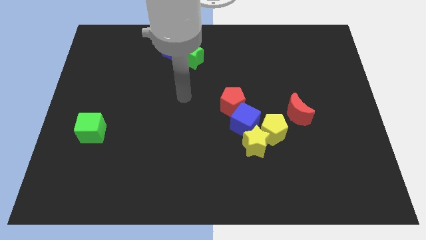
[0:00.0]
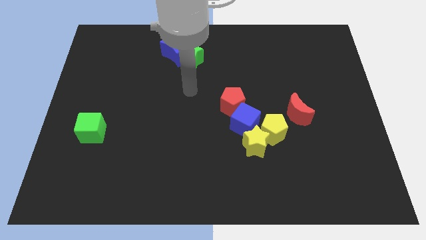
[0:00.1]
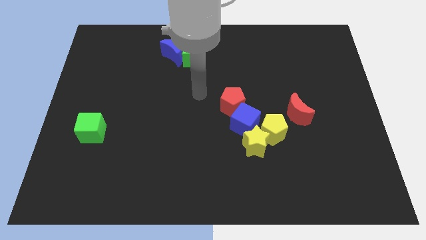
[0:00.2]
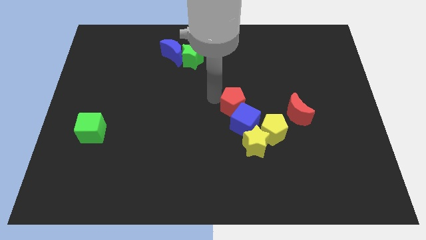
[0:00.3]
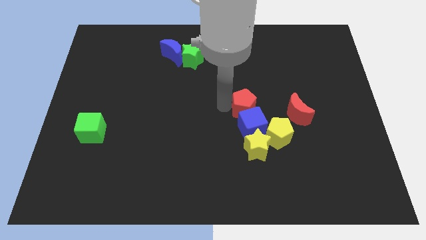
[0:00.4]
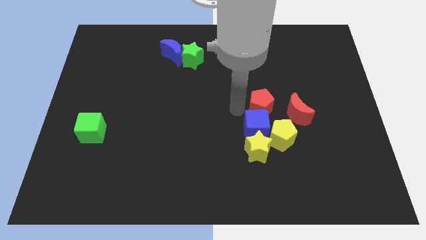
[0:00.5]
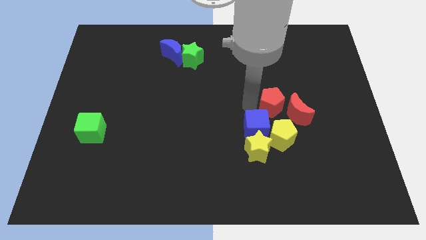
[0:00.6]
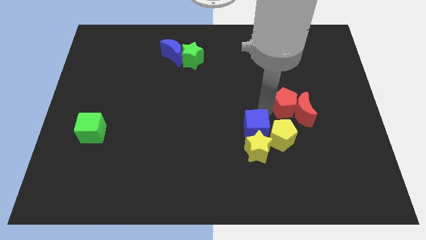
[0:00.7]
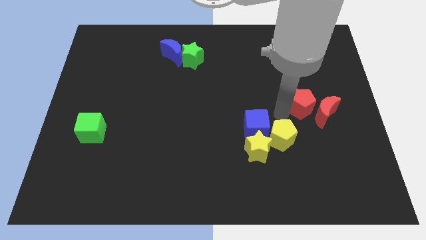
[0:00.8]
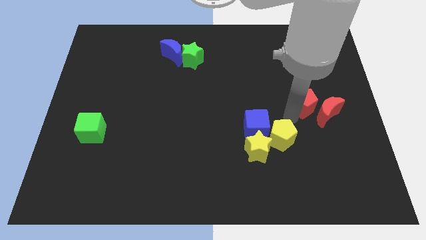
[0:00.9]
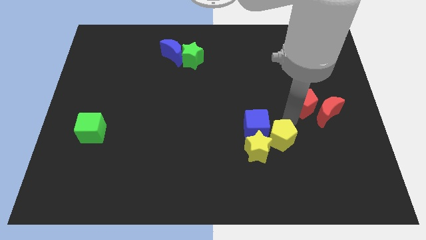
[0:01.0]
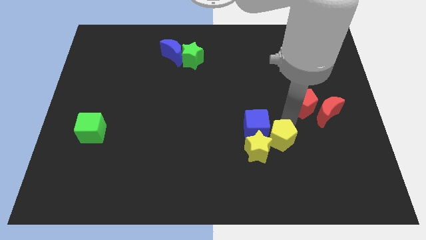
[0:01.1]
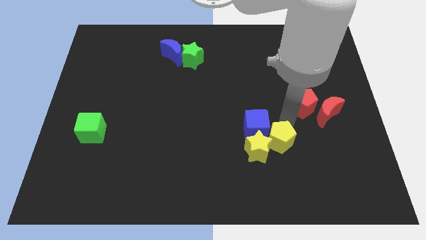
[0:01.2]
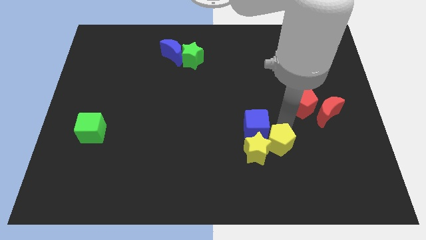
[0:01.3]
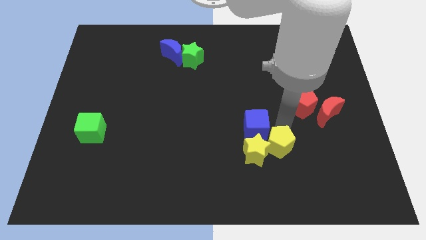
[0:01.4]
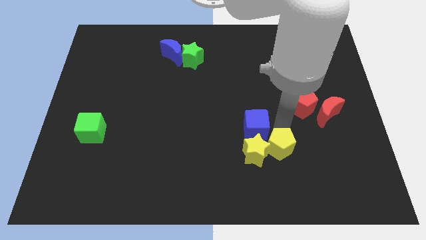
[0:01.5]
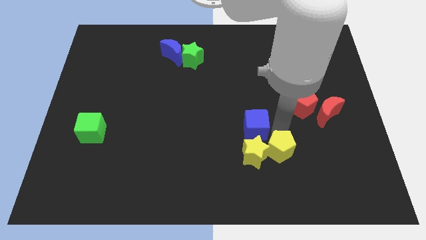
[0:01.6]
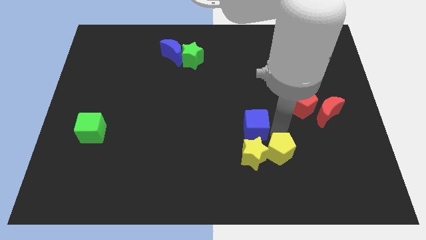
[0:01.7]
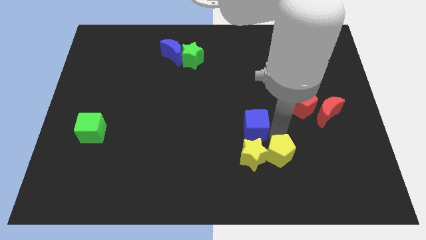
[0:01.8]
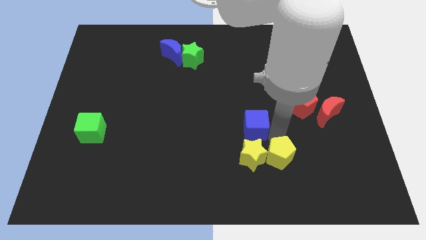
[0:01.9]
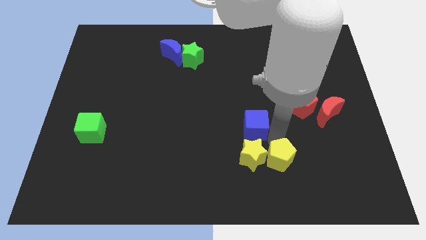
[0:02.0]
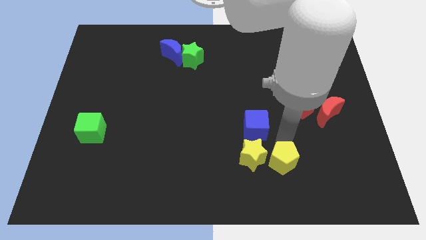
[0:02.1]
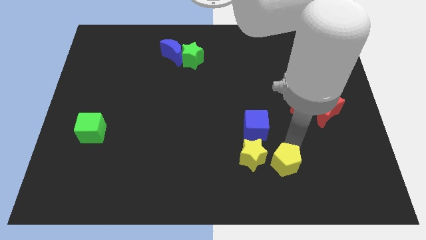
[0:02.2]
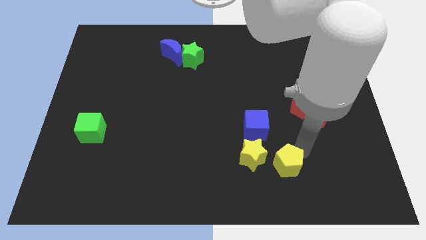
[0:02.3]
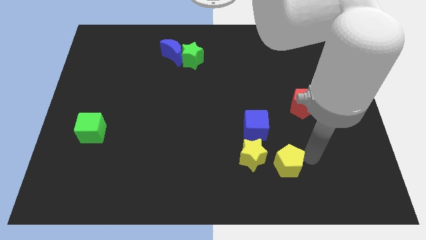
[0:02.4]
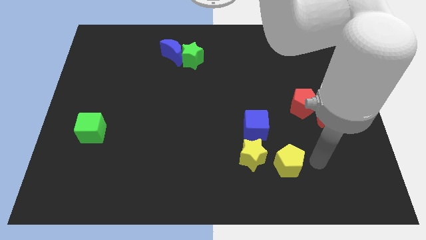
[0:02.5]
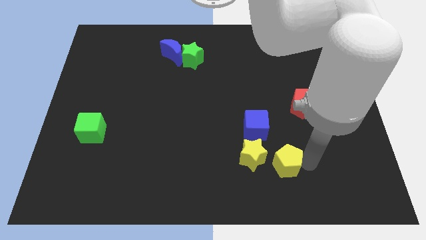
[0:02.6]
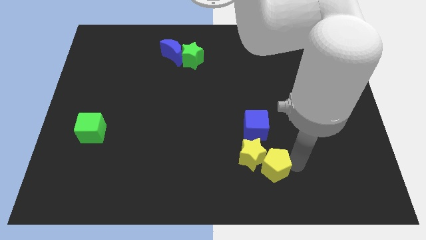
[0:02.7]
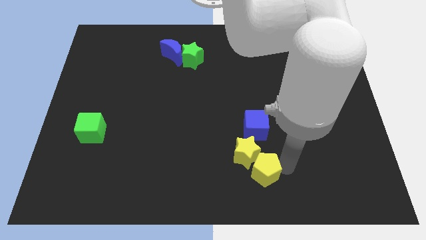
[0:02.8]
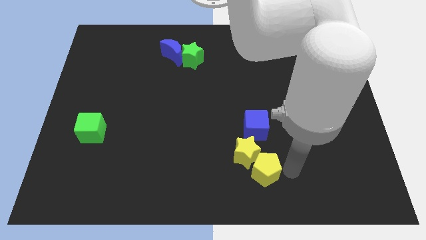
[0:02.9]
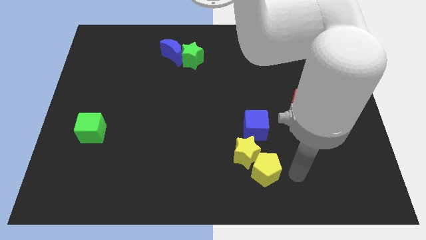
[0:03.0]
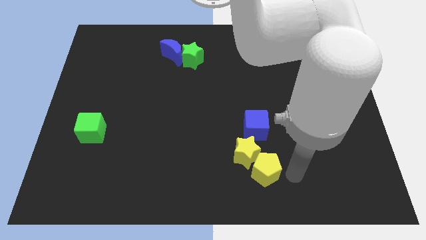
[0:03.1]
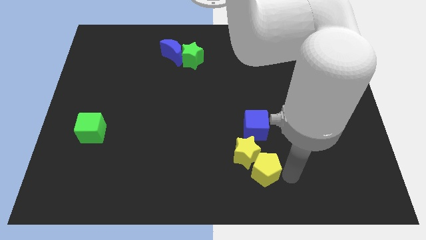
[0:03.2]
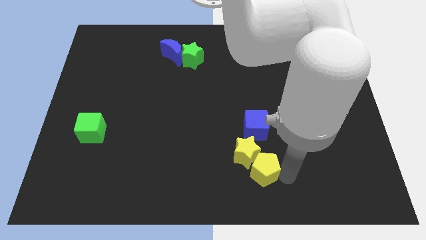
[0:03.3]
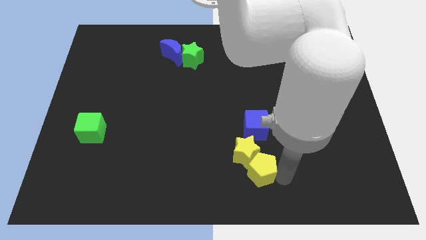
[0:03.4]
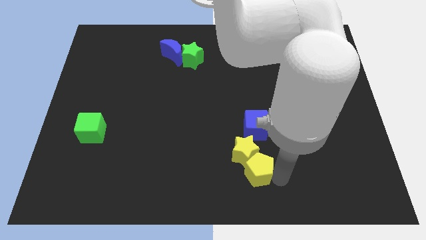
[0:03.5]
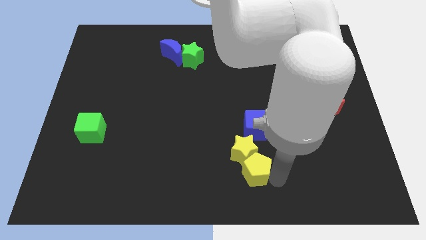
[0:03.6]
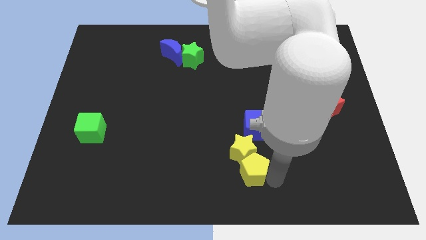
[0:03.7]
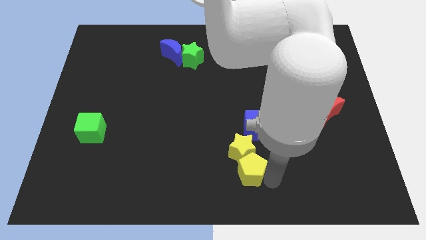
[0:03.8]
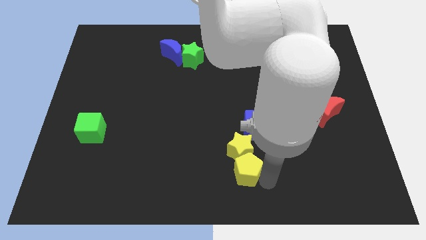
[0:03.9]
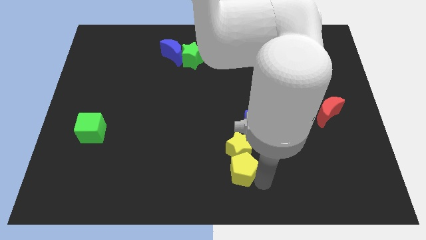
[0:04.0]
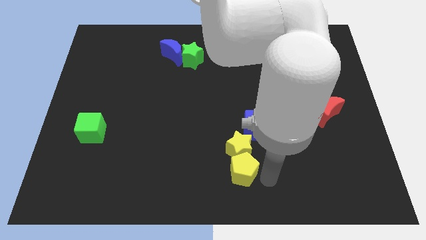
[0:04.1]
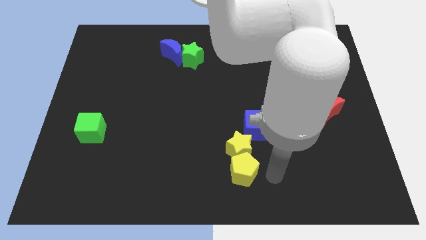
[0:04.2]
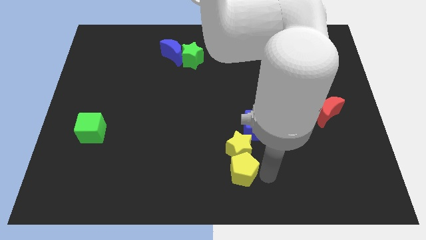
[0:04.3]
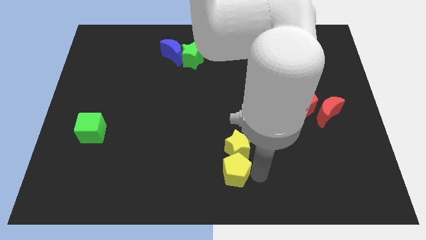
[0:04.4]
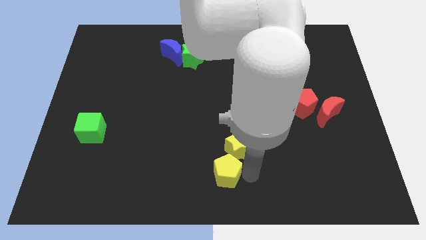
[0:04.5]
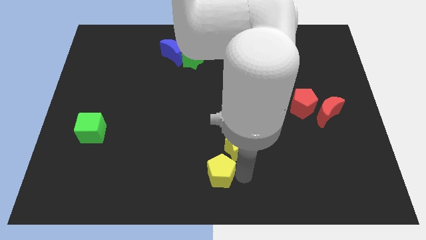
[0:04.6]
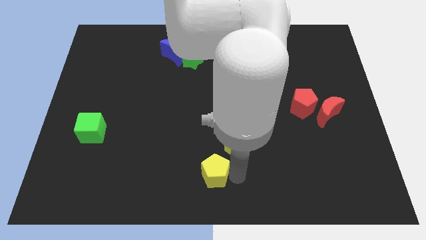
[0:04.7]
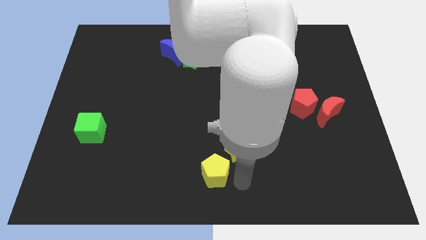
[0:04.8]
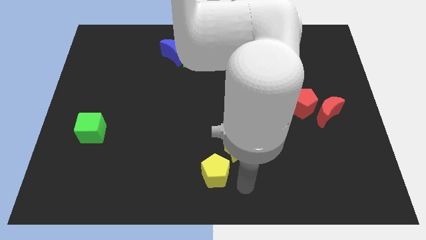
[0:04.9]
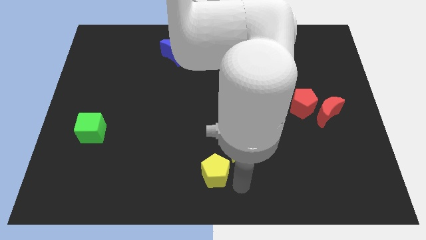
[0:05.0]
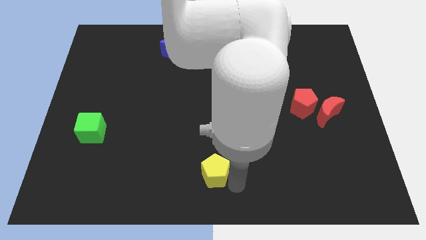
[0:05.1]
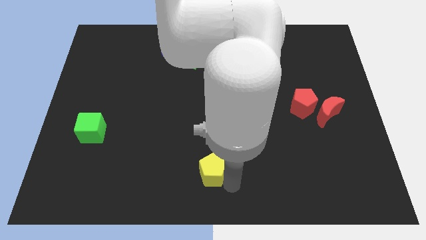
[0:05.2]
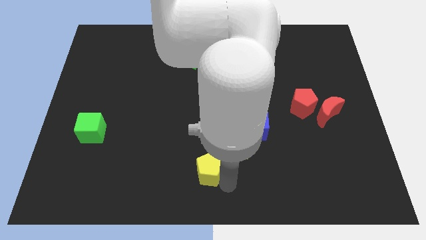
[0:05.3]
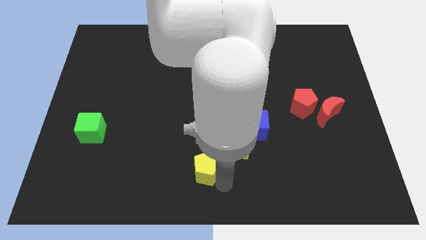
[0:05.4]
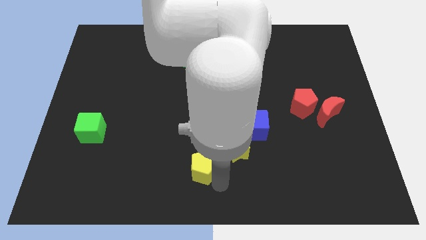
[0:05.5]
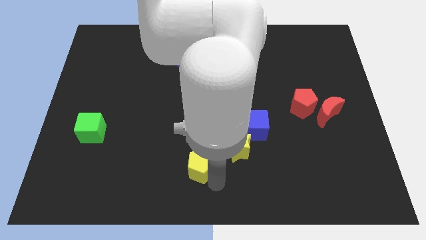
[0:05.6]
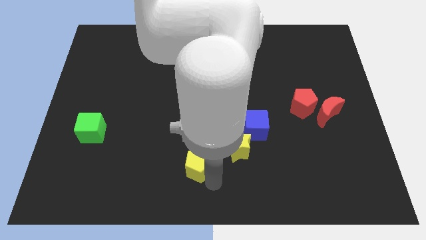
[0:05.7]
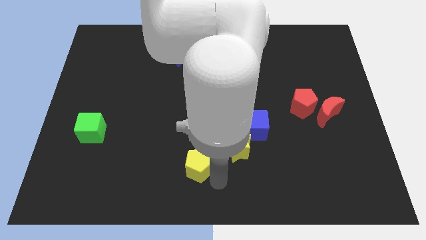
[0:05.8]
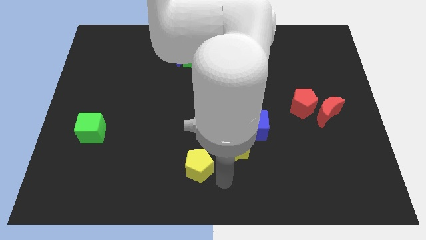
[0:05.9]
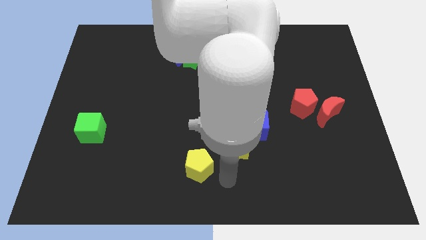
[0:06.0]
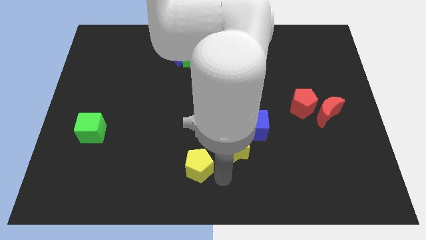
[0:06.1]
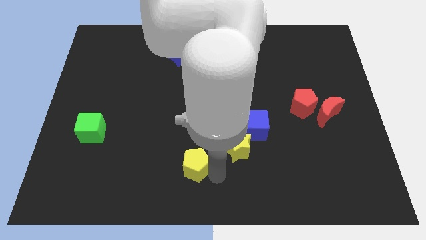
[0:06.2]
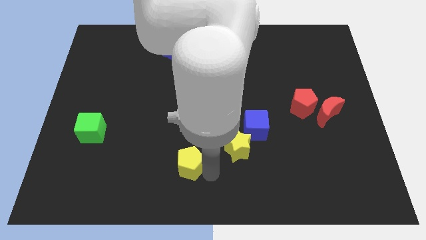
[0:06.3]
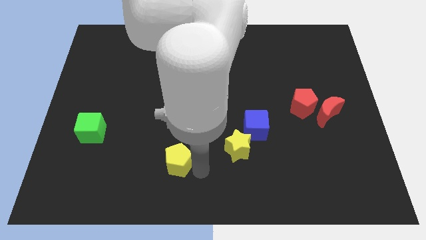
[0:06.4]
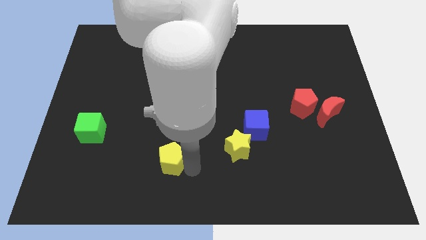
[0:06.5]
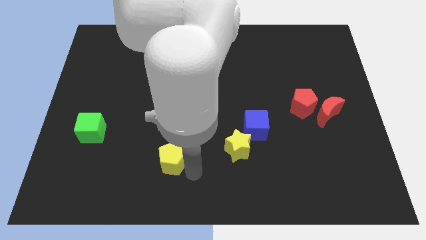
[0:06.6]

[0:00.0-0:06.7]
move the yellow pentagon to the left

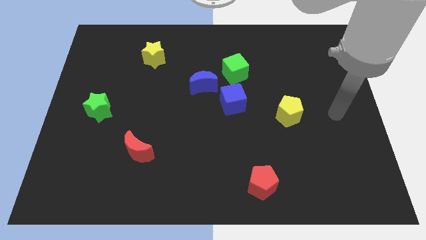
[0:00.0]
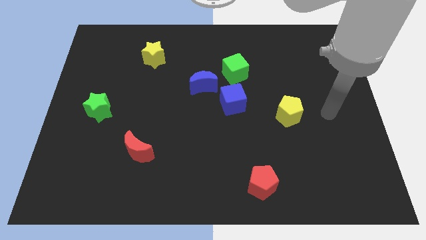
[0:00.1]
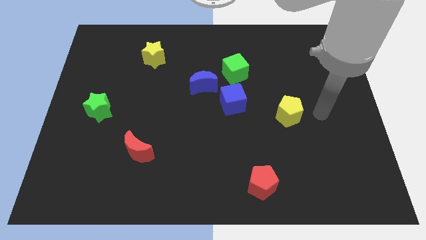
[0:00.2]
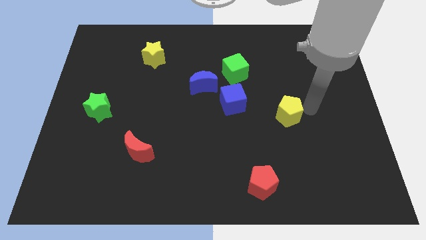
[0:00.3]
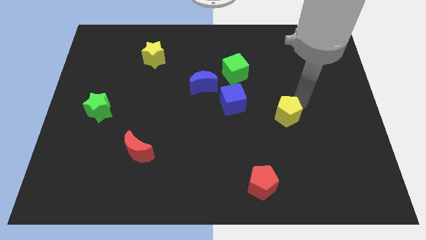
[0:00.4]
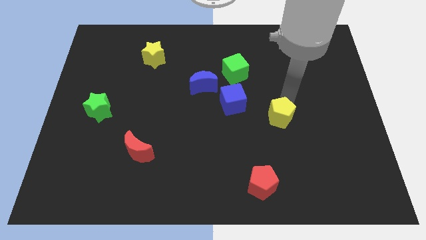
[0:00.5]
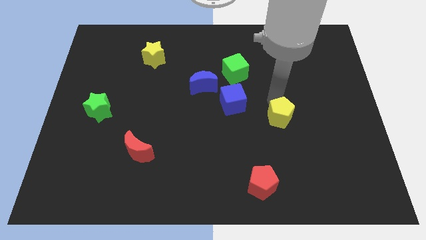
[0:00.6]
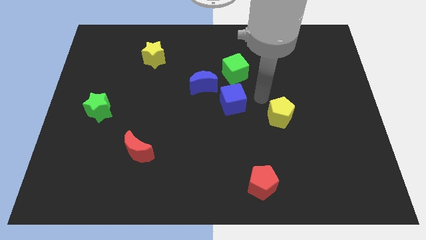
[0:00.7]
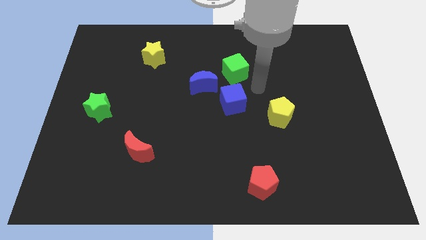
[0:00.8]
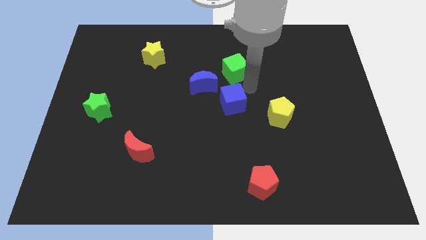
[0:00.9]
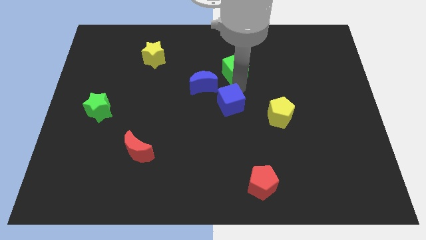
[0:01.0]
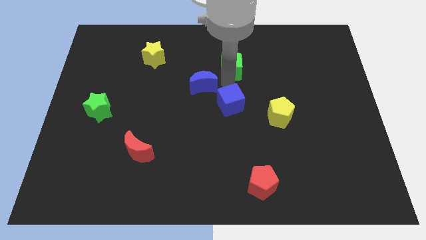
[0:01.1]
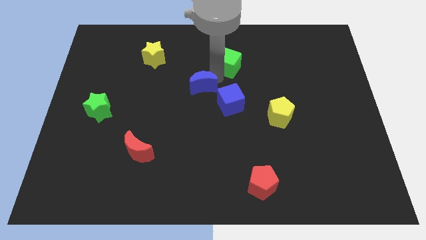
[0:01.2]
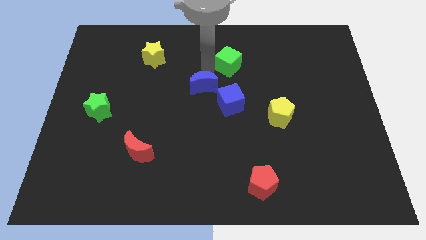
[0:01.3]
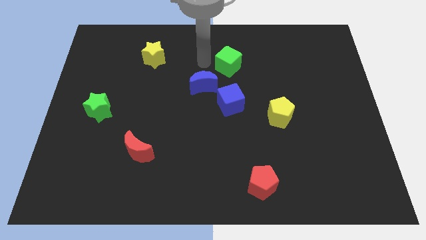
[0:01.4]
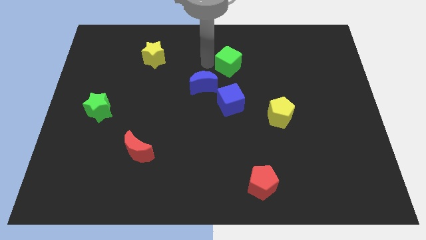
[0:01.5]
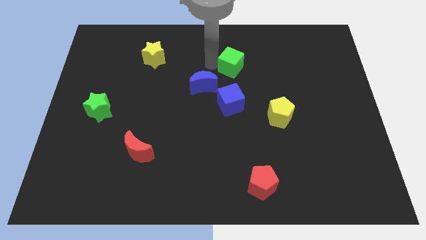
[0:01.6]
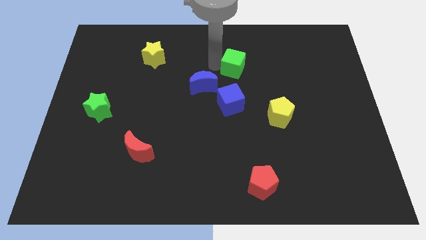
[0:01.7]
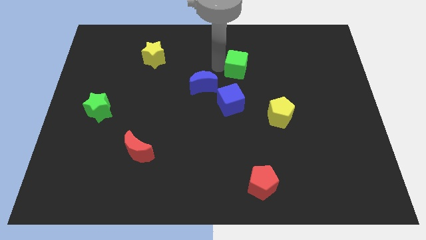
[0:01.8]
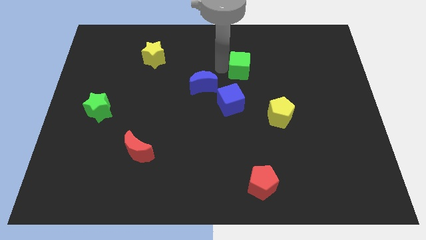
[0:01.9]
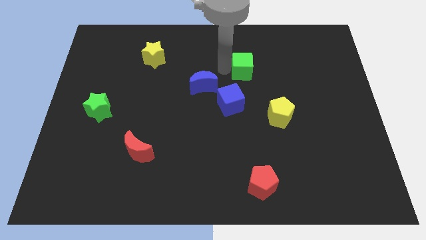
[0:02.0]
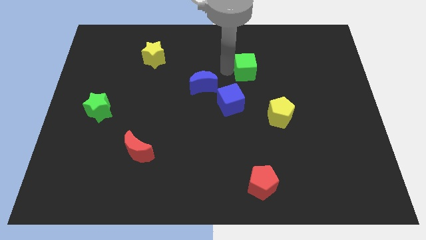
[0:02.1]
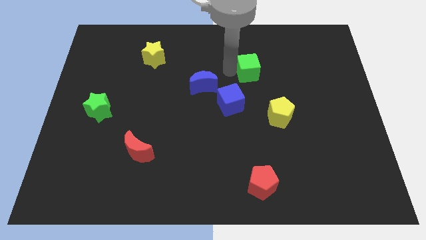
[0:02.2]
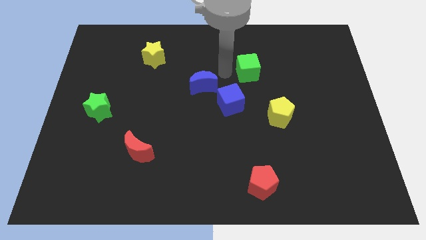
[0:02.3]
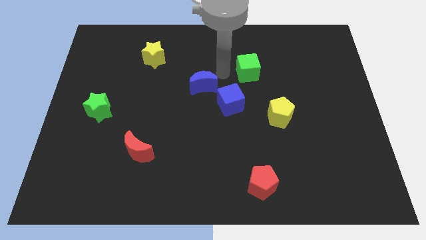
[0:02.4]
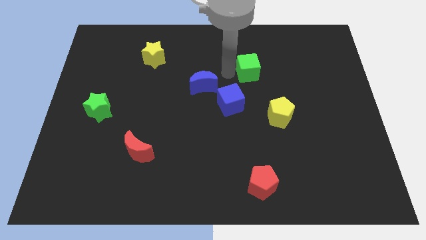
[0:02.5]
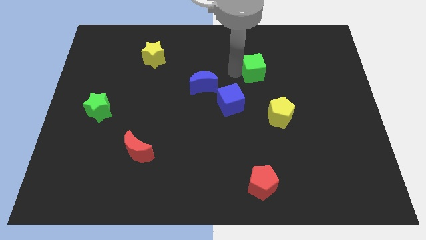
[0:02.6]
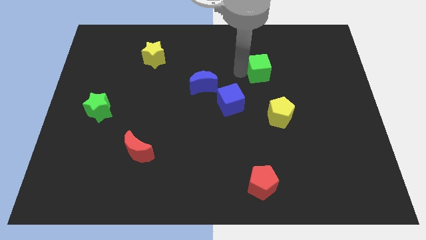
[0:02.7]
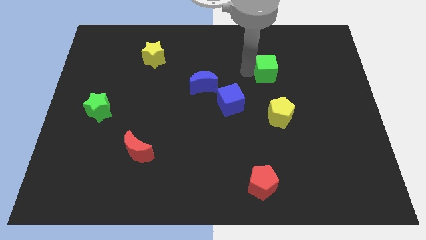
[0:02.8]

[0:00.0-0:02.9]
slightly push the green cube to the right
